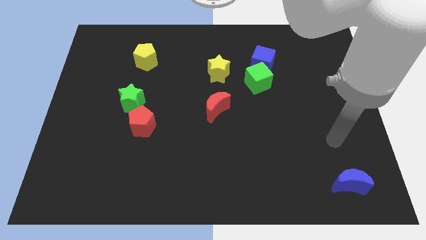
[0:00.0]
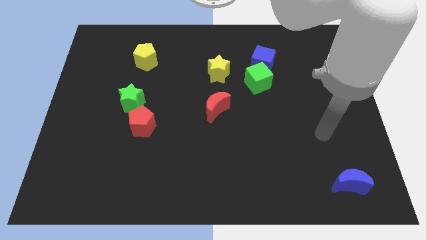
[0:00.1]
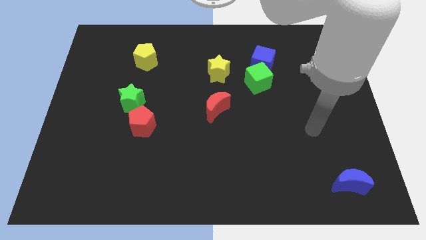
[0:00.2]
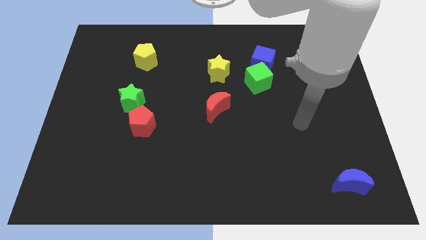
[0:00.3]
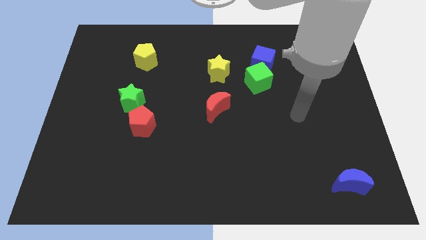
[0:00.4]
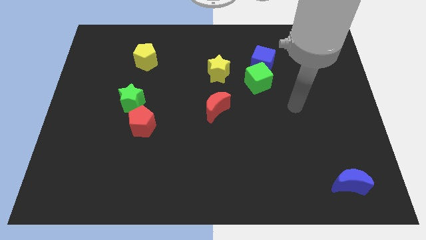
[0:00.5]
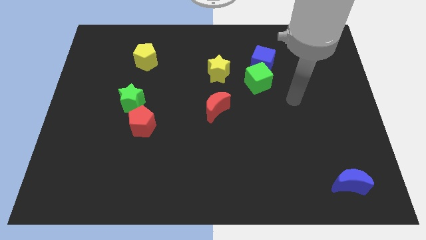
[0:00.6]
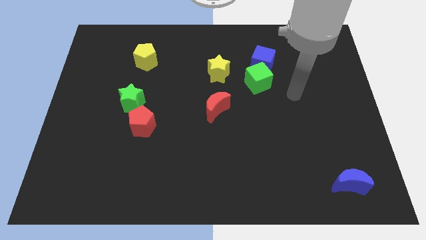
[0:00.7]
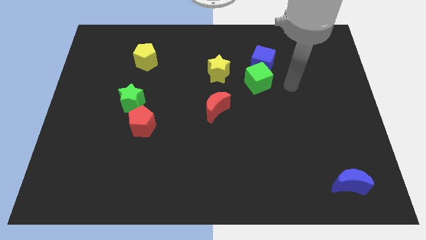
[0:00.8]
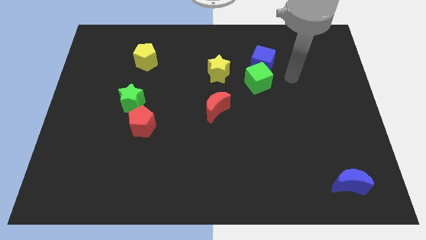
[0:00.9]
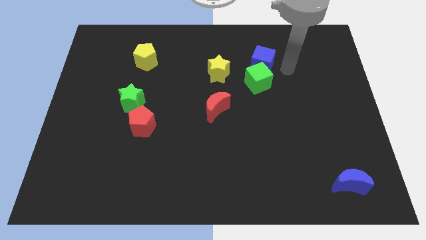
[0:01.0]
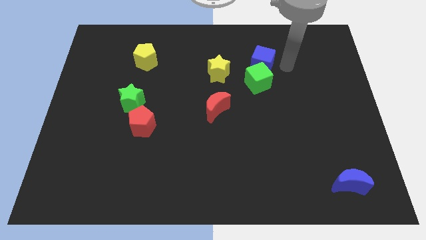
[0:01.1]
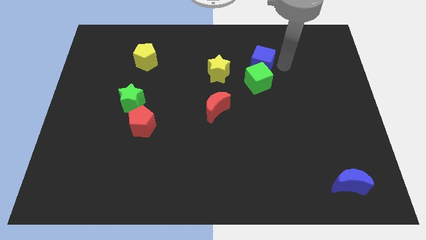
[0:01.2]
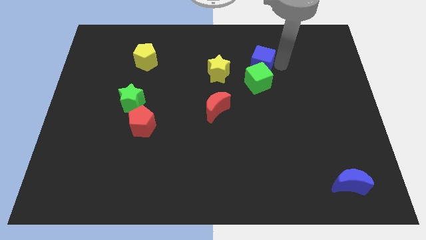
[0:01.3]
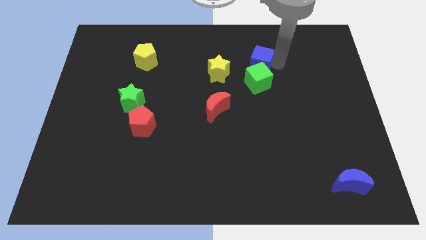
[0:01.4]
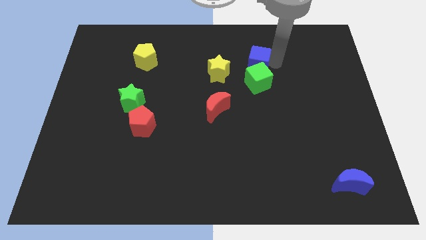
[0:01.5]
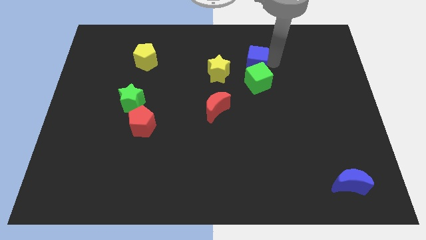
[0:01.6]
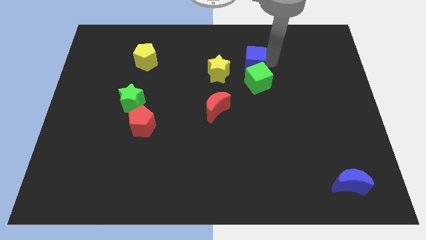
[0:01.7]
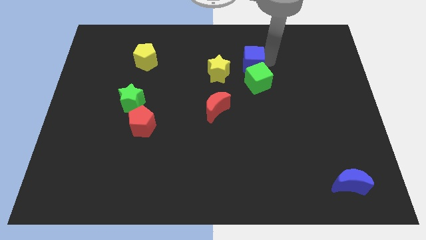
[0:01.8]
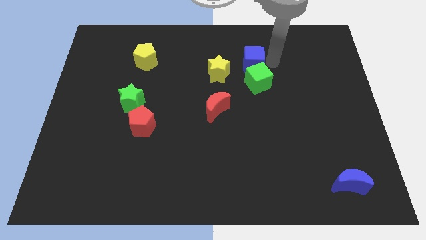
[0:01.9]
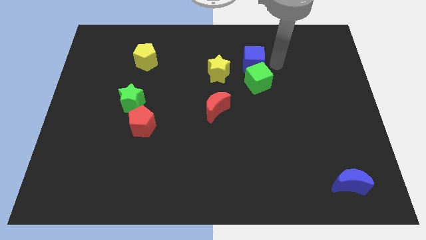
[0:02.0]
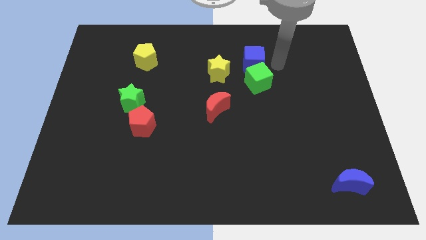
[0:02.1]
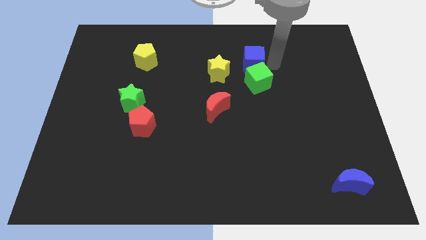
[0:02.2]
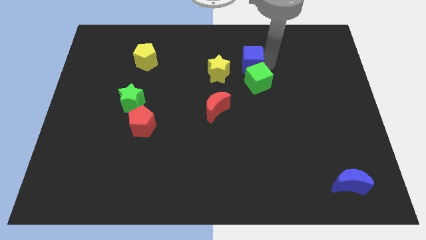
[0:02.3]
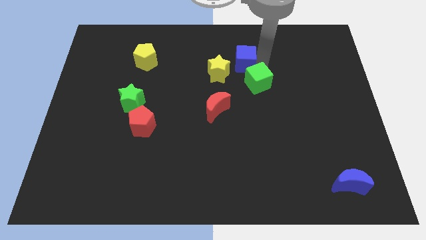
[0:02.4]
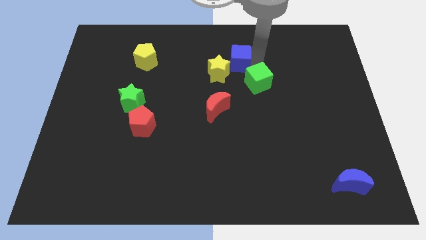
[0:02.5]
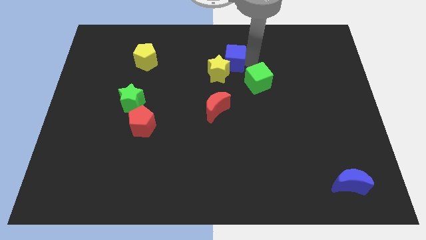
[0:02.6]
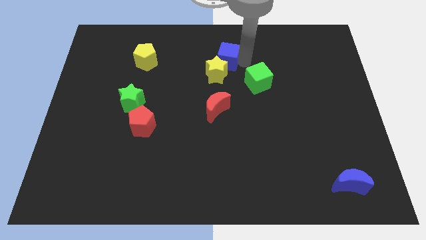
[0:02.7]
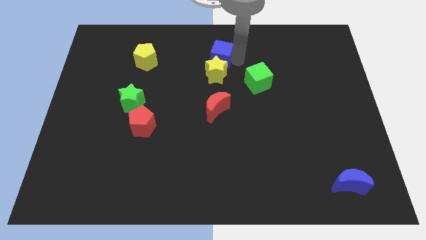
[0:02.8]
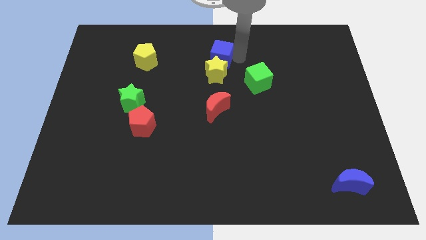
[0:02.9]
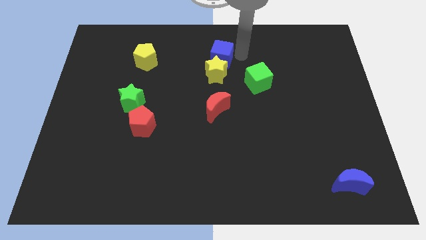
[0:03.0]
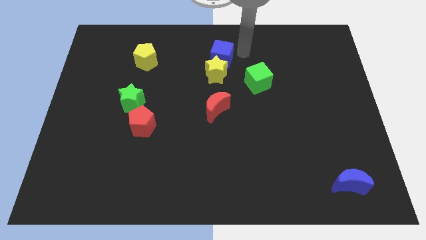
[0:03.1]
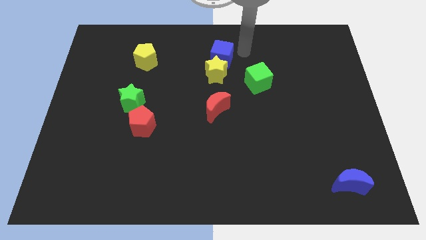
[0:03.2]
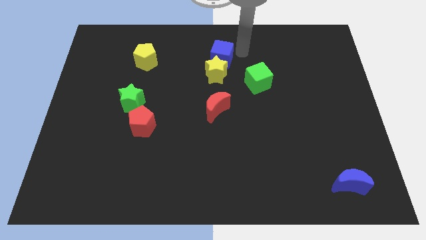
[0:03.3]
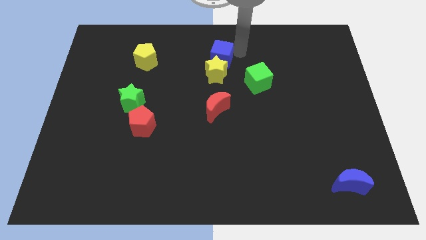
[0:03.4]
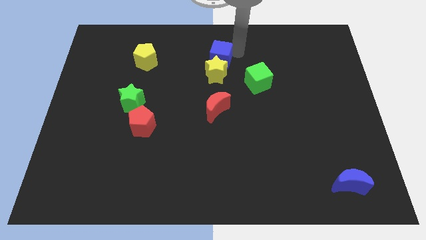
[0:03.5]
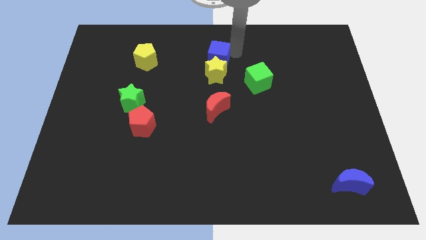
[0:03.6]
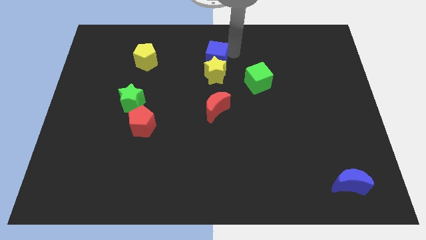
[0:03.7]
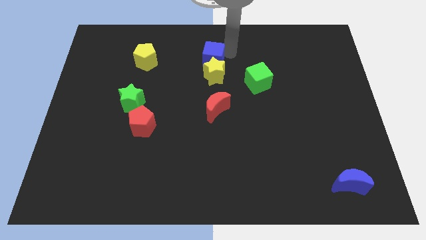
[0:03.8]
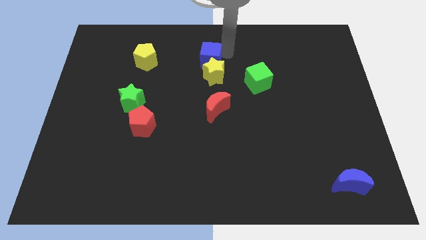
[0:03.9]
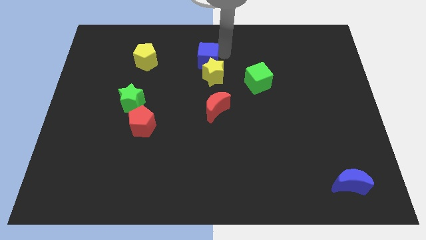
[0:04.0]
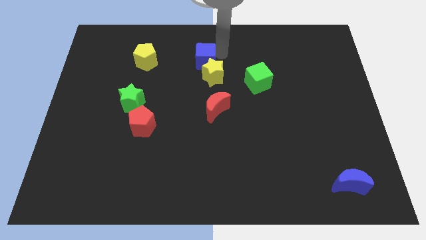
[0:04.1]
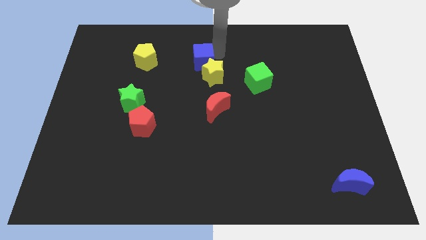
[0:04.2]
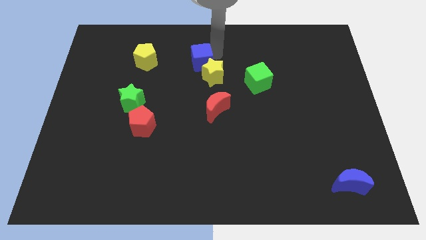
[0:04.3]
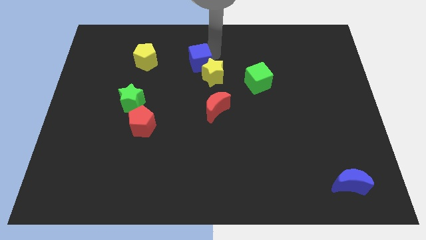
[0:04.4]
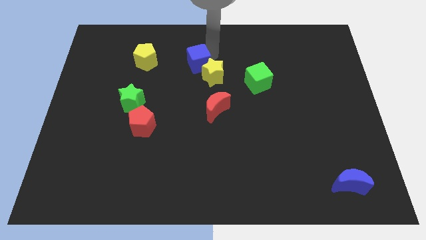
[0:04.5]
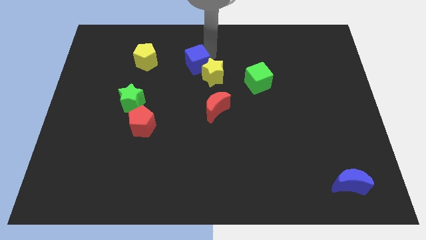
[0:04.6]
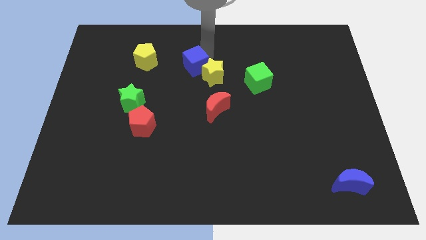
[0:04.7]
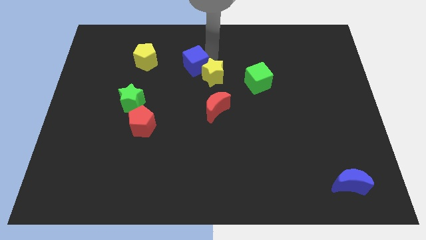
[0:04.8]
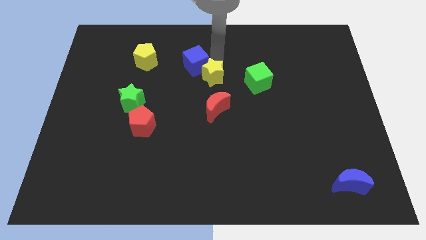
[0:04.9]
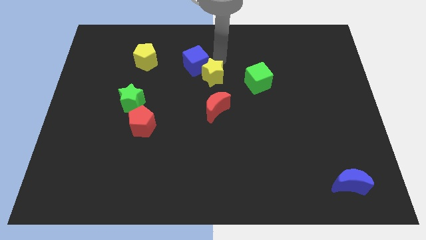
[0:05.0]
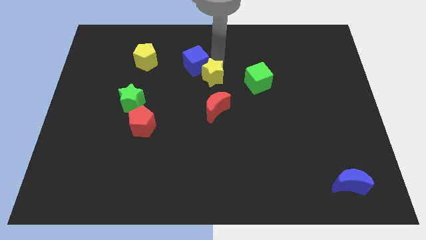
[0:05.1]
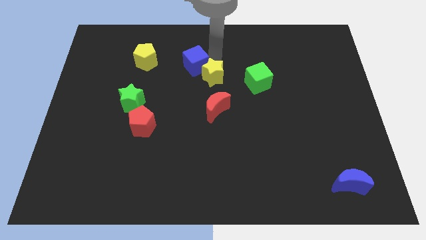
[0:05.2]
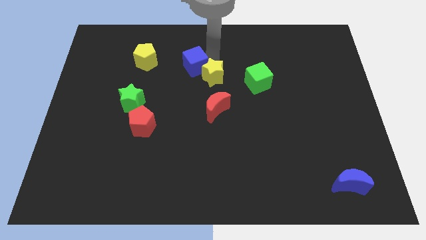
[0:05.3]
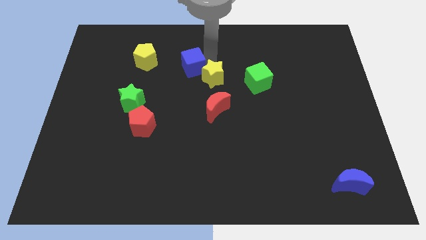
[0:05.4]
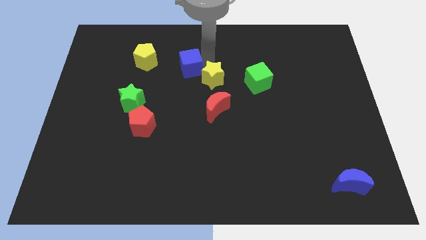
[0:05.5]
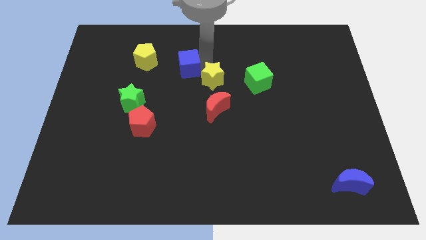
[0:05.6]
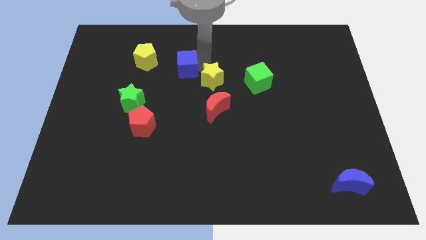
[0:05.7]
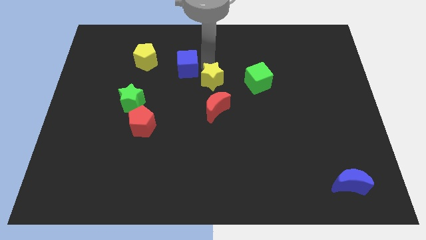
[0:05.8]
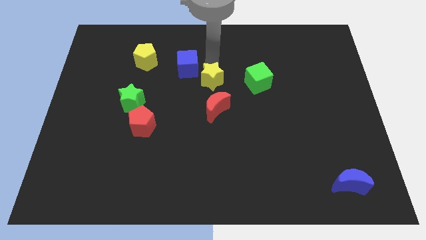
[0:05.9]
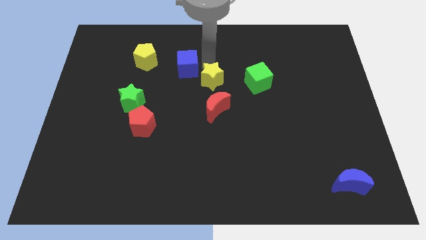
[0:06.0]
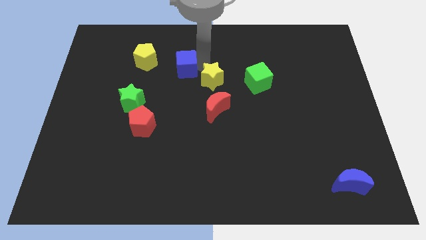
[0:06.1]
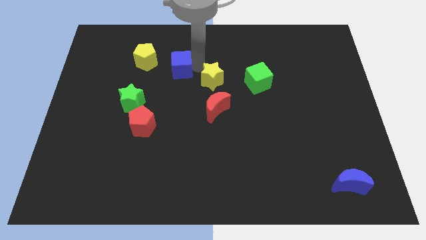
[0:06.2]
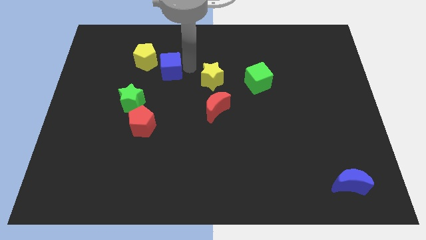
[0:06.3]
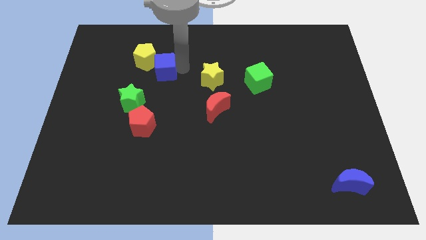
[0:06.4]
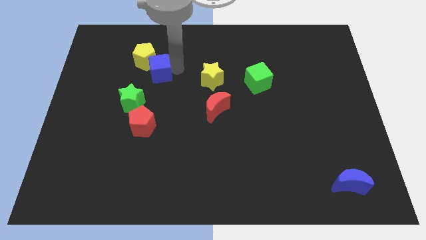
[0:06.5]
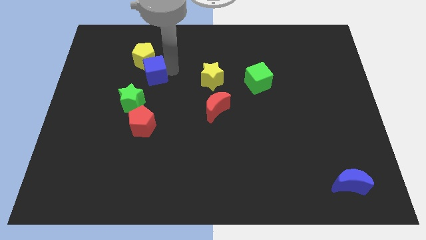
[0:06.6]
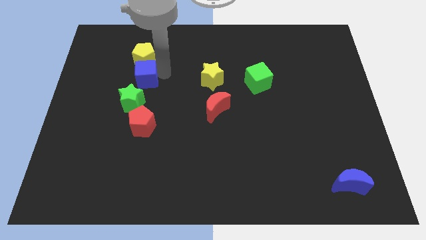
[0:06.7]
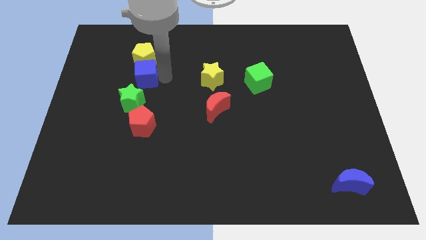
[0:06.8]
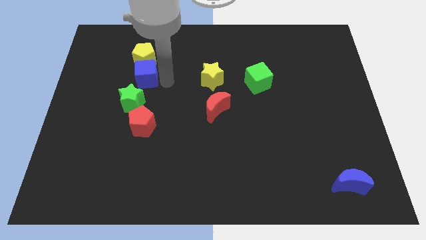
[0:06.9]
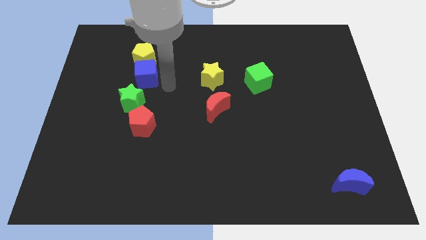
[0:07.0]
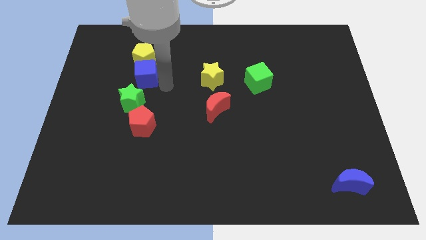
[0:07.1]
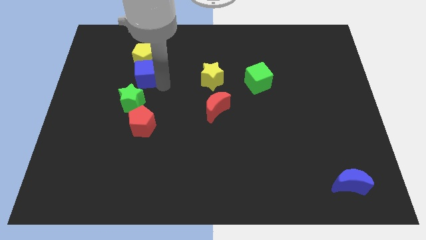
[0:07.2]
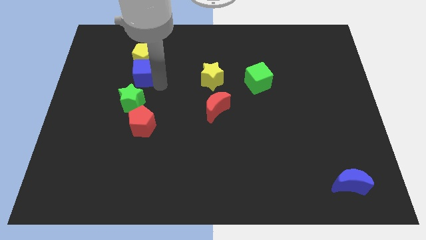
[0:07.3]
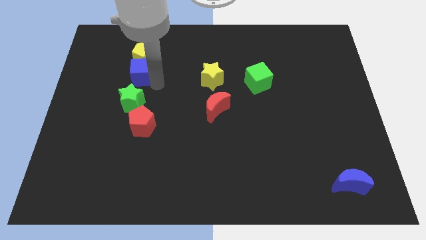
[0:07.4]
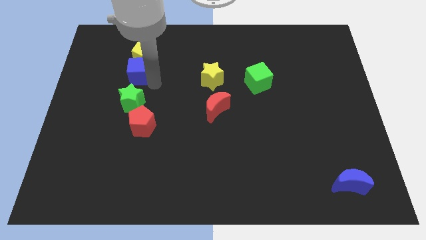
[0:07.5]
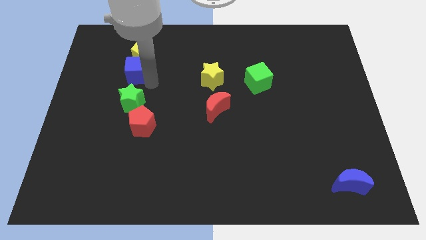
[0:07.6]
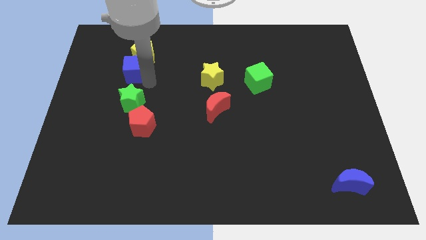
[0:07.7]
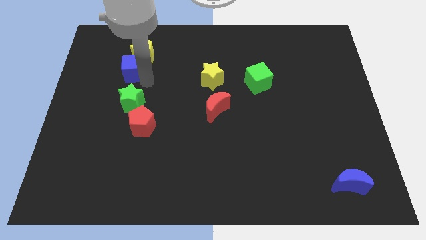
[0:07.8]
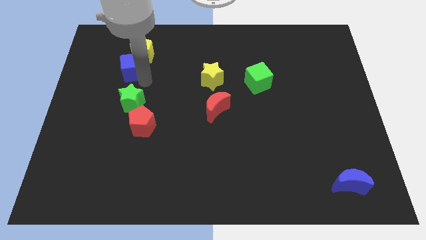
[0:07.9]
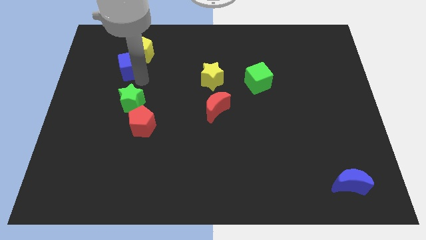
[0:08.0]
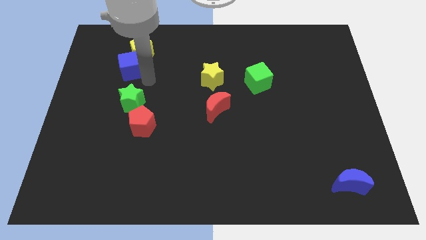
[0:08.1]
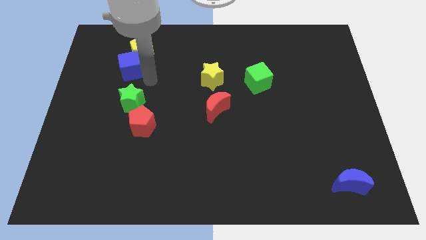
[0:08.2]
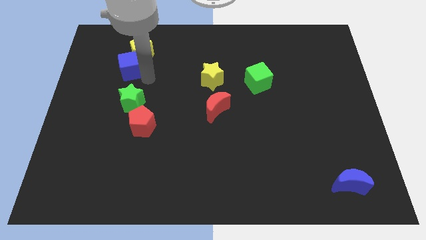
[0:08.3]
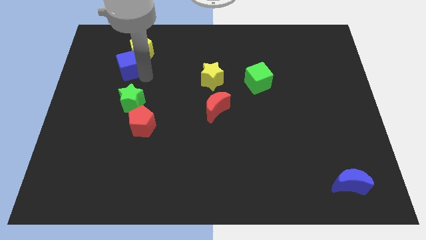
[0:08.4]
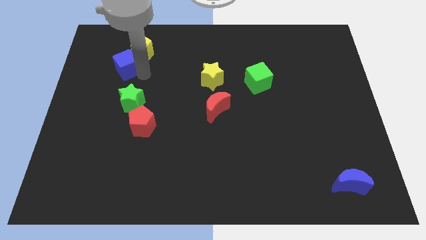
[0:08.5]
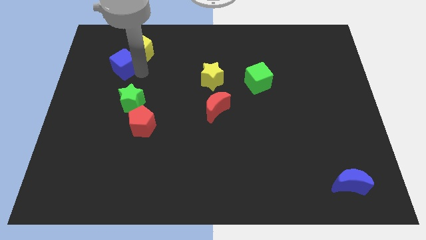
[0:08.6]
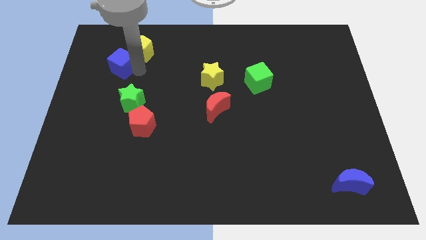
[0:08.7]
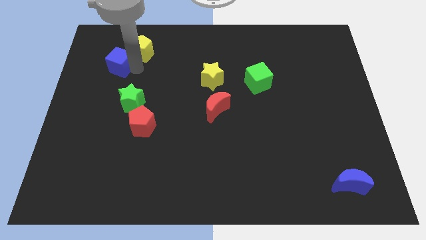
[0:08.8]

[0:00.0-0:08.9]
move the blue cube left of the yellow pentagon
